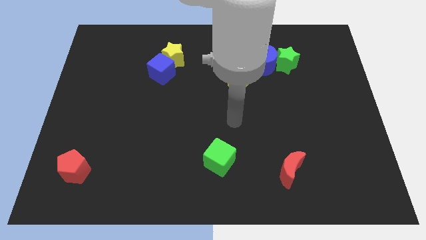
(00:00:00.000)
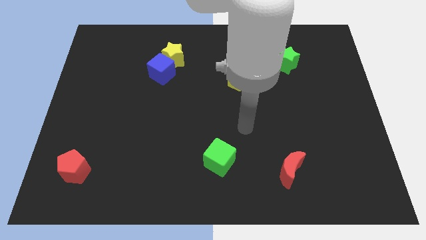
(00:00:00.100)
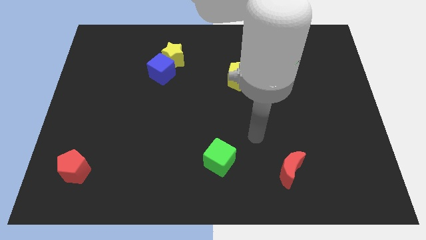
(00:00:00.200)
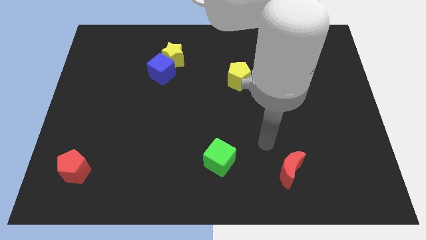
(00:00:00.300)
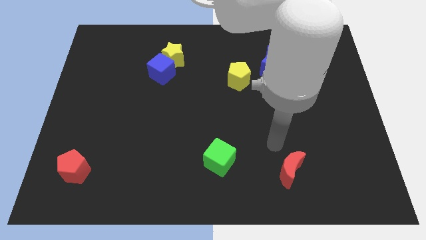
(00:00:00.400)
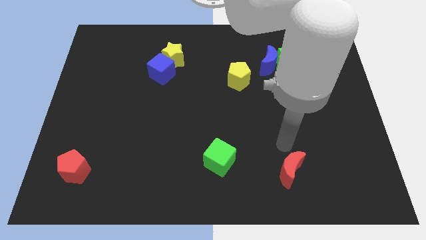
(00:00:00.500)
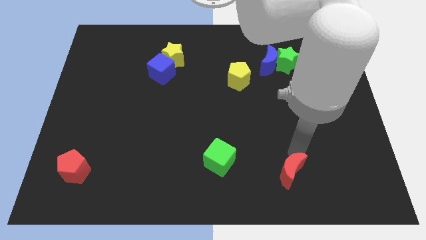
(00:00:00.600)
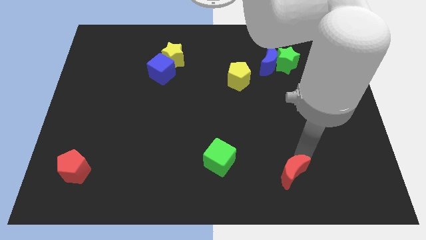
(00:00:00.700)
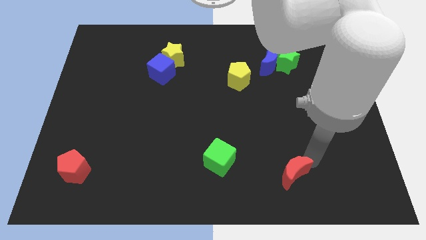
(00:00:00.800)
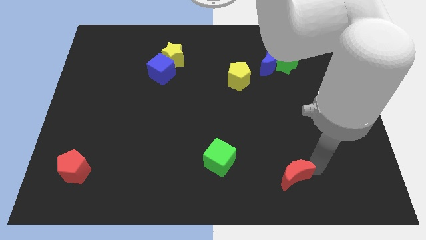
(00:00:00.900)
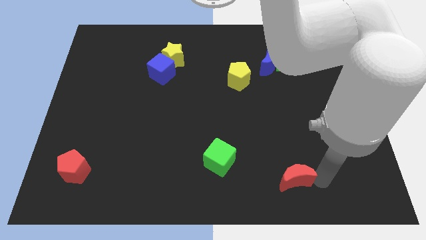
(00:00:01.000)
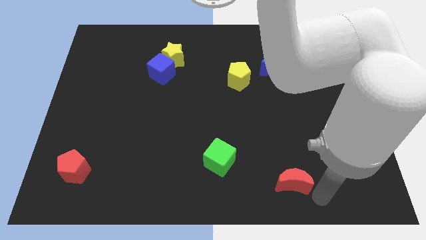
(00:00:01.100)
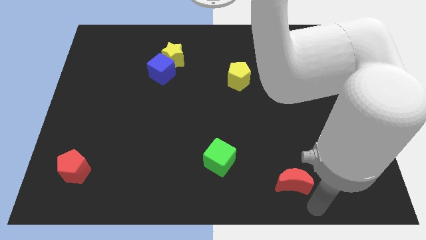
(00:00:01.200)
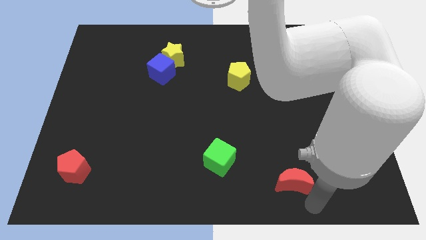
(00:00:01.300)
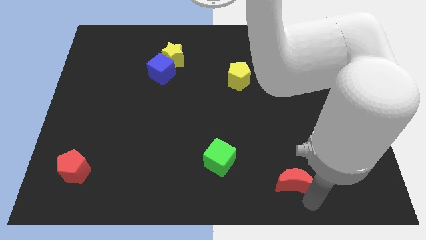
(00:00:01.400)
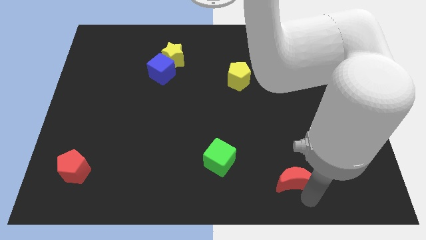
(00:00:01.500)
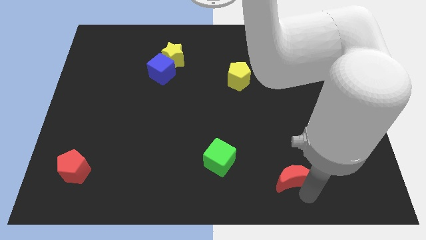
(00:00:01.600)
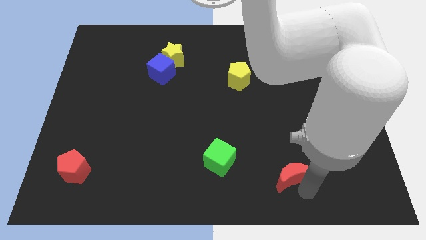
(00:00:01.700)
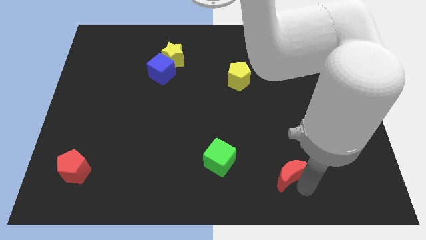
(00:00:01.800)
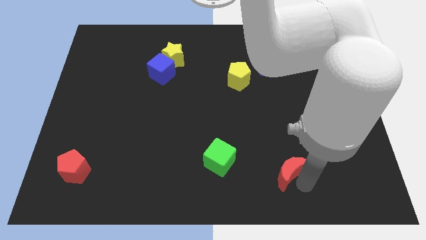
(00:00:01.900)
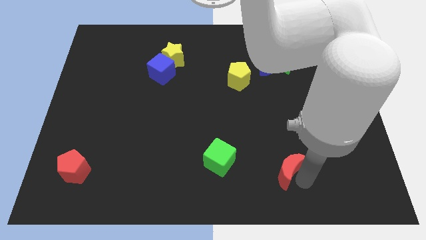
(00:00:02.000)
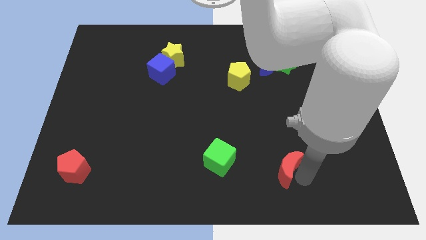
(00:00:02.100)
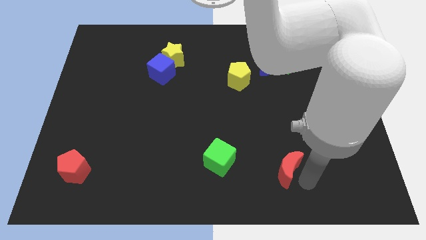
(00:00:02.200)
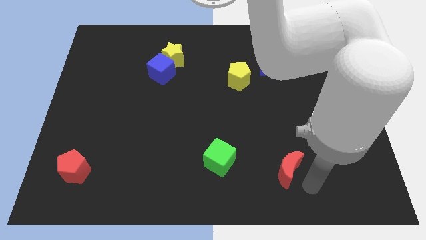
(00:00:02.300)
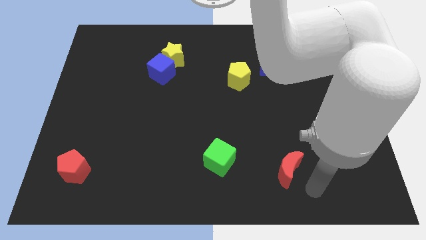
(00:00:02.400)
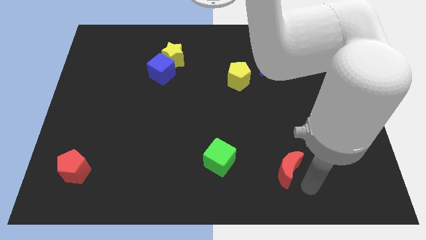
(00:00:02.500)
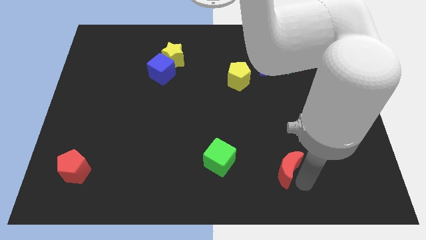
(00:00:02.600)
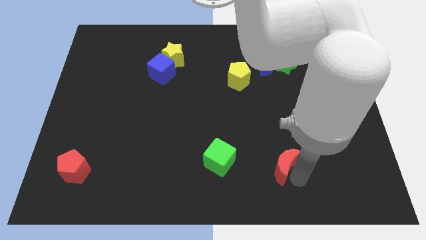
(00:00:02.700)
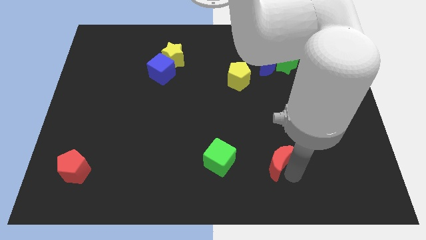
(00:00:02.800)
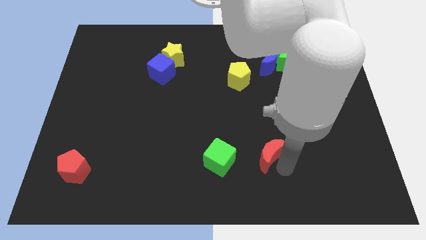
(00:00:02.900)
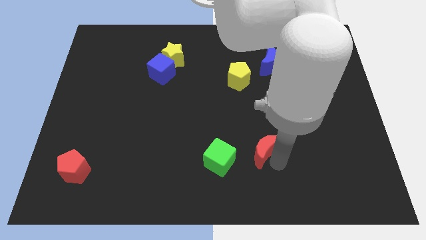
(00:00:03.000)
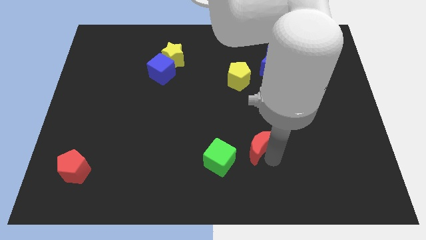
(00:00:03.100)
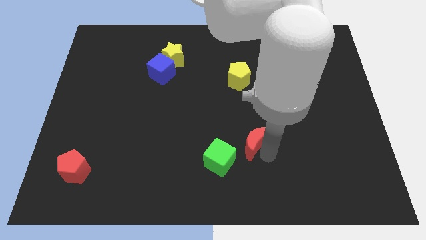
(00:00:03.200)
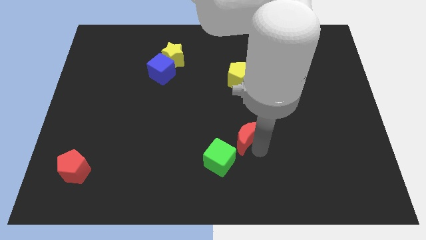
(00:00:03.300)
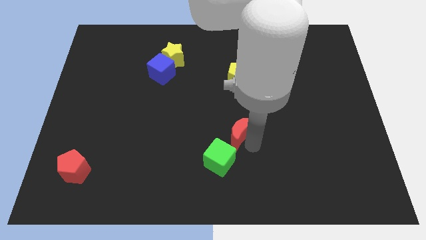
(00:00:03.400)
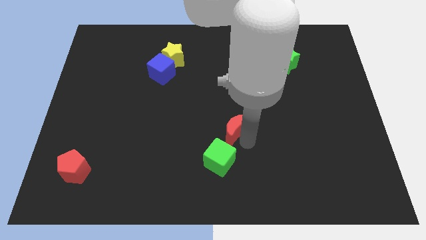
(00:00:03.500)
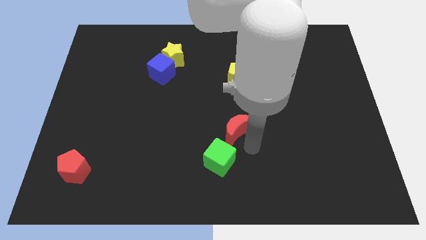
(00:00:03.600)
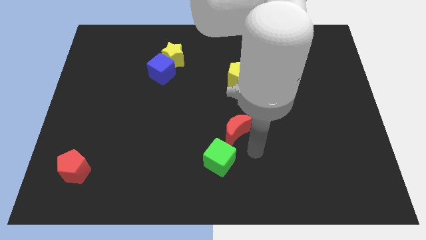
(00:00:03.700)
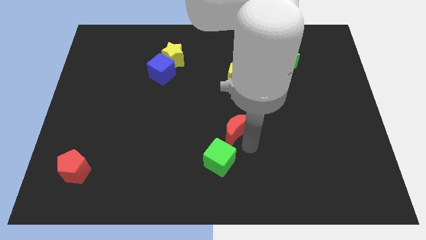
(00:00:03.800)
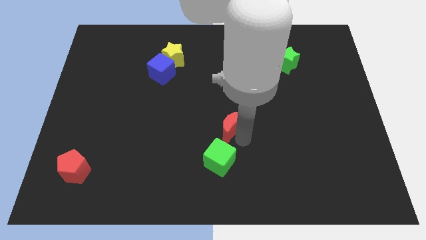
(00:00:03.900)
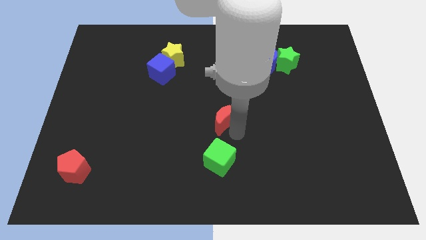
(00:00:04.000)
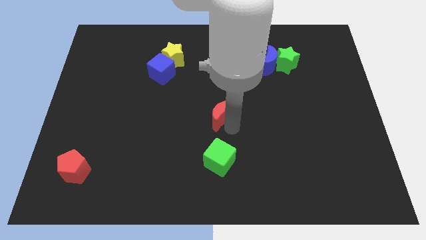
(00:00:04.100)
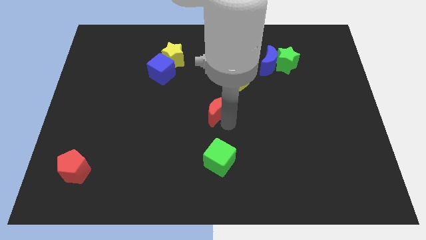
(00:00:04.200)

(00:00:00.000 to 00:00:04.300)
slide the red moon up and then to the left

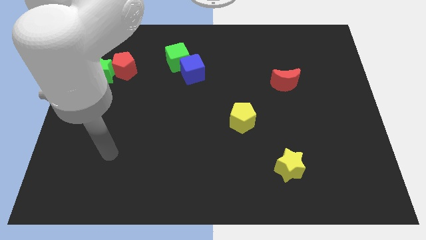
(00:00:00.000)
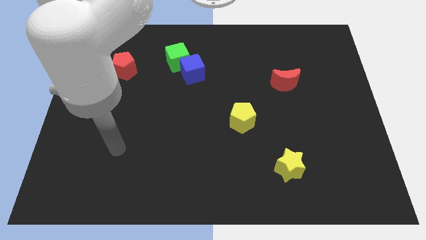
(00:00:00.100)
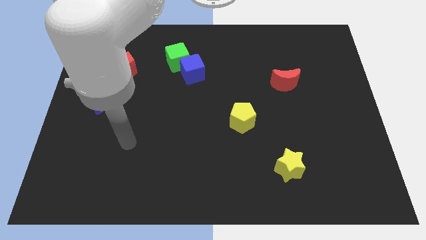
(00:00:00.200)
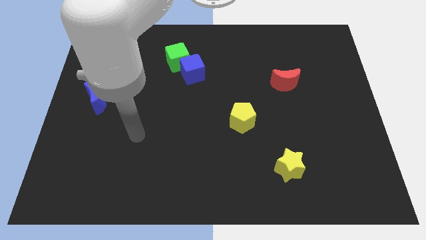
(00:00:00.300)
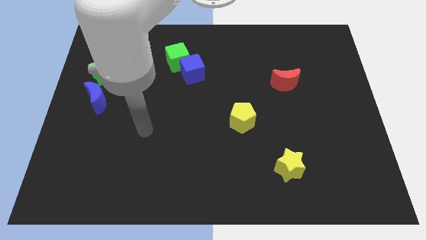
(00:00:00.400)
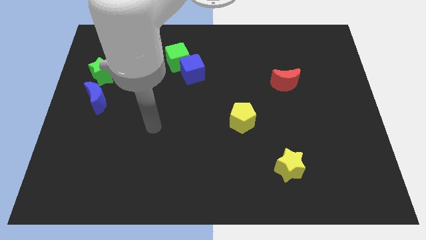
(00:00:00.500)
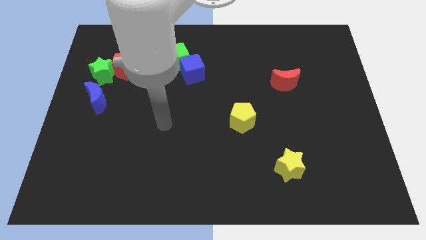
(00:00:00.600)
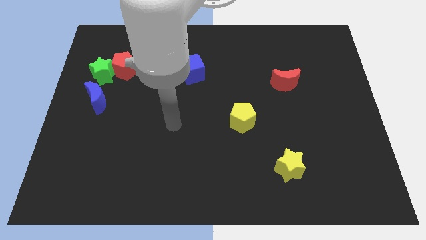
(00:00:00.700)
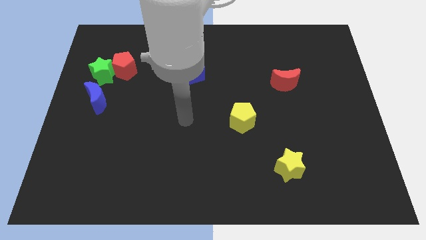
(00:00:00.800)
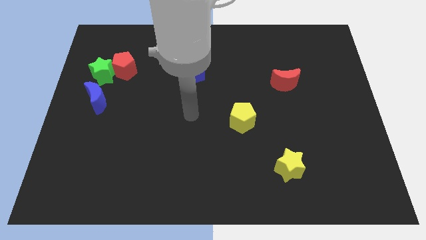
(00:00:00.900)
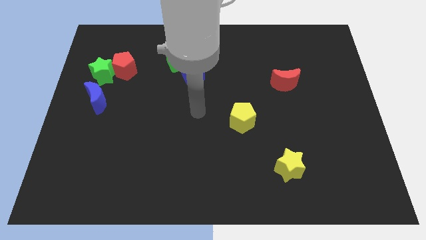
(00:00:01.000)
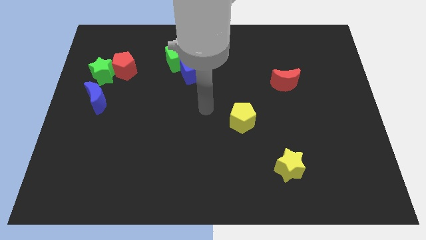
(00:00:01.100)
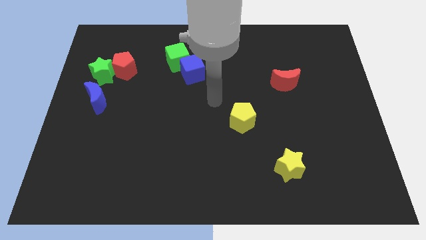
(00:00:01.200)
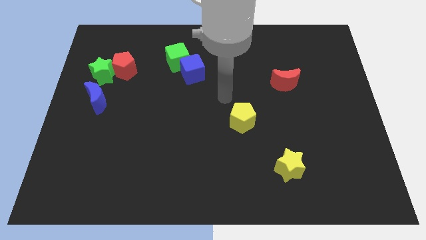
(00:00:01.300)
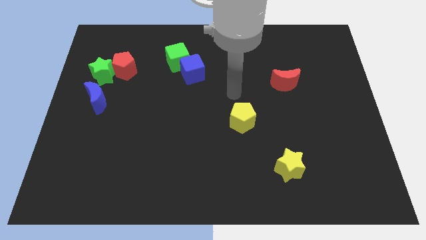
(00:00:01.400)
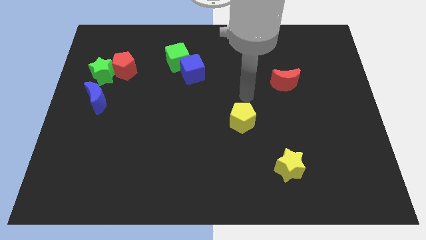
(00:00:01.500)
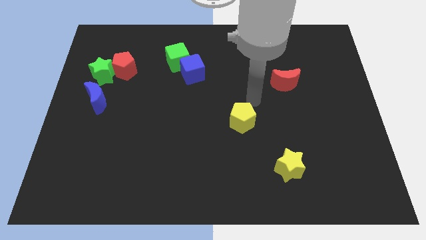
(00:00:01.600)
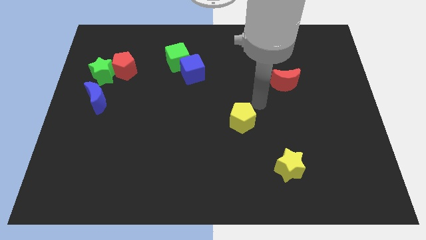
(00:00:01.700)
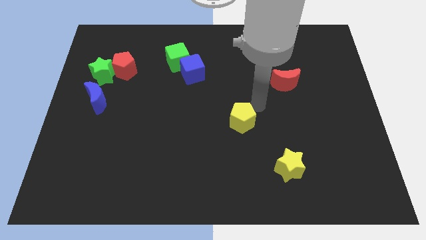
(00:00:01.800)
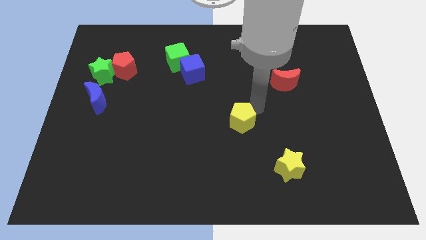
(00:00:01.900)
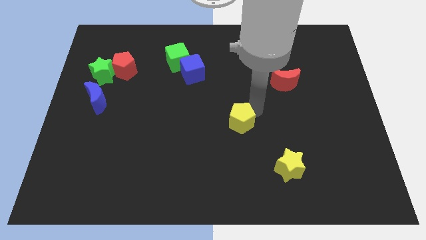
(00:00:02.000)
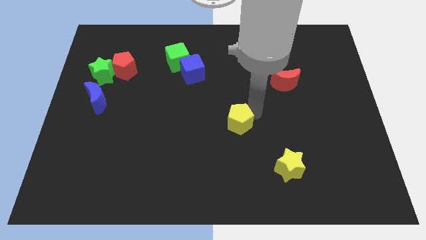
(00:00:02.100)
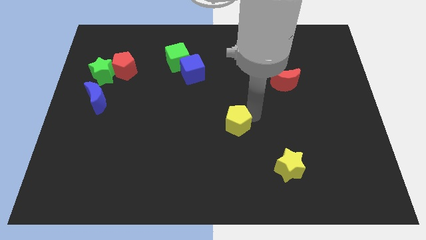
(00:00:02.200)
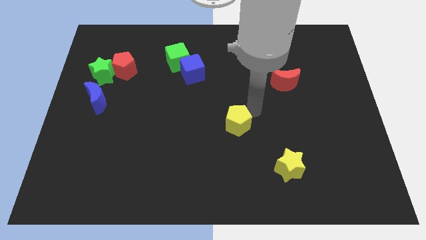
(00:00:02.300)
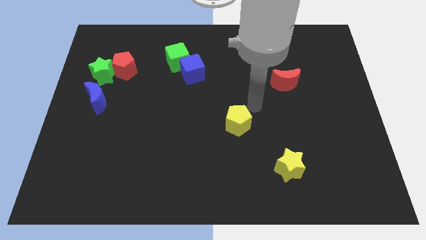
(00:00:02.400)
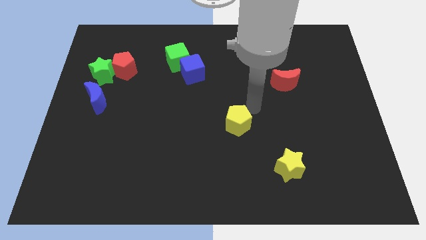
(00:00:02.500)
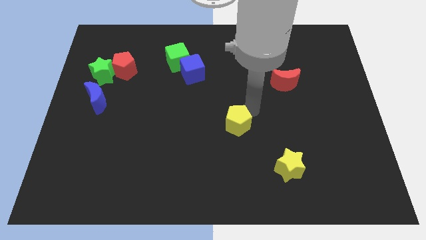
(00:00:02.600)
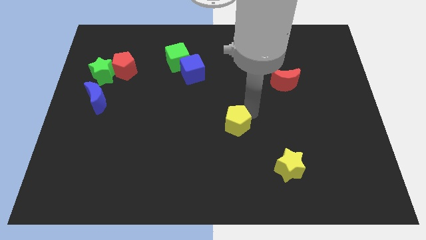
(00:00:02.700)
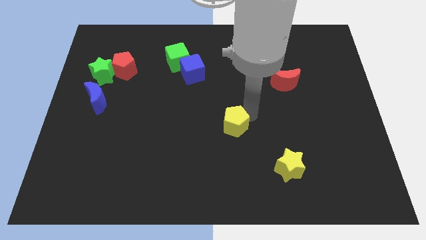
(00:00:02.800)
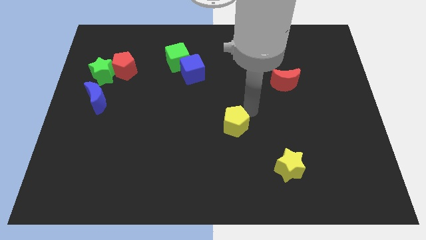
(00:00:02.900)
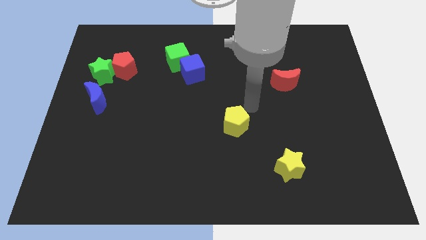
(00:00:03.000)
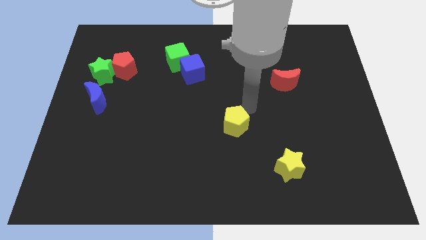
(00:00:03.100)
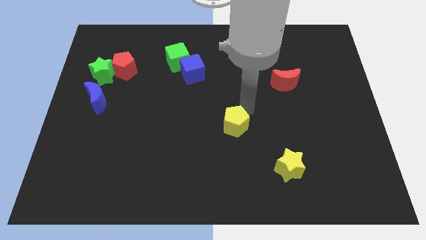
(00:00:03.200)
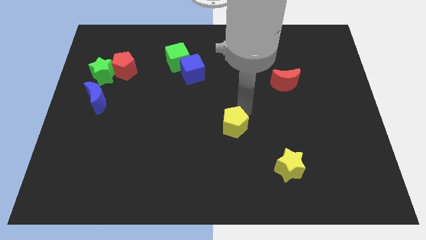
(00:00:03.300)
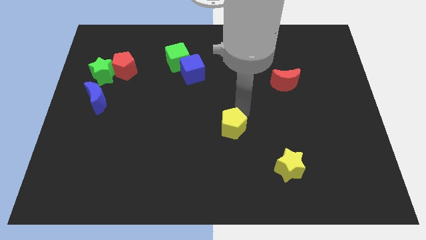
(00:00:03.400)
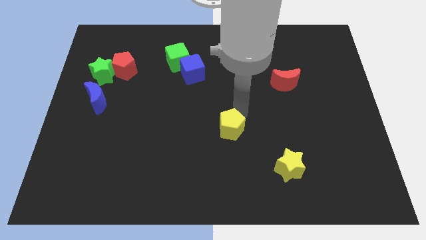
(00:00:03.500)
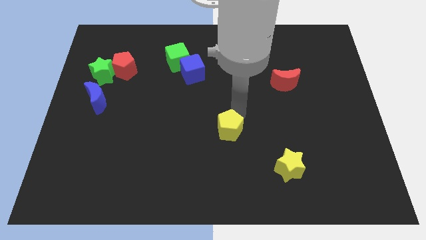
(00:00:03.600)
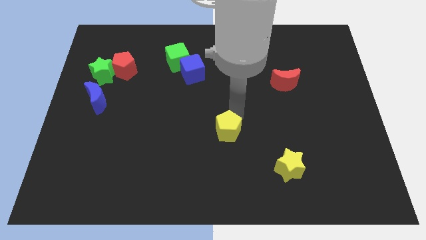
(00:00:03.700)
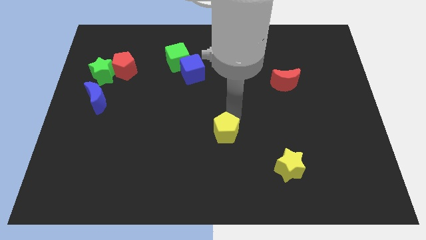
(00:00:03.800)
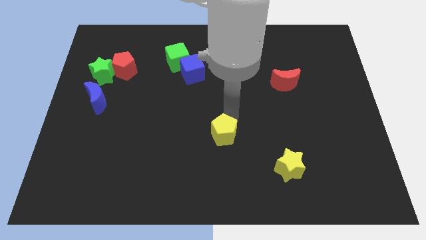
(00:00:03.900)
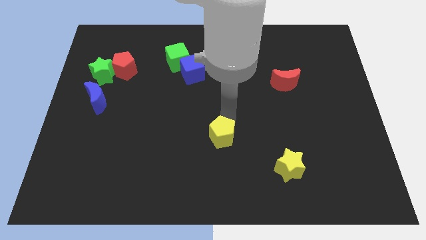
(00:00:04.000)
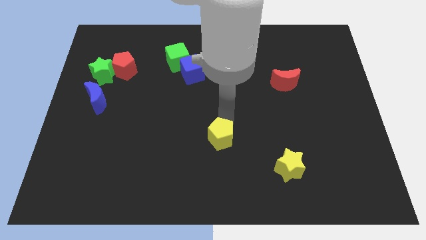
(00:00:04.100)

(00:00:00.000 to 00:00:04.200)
slightly slide the yellow pentagon downwards and to the left
